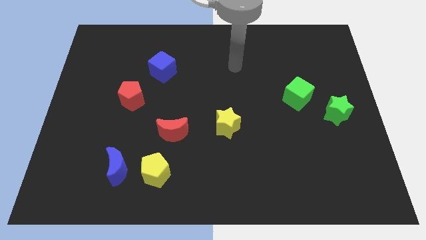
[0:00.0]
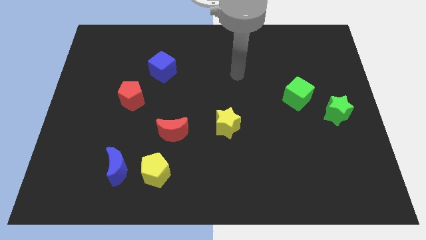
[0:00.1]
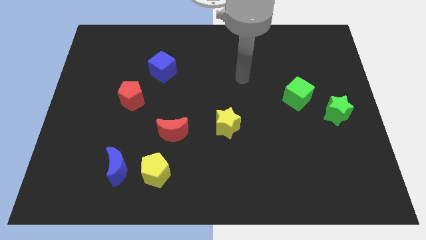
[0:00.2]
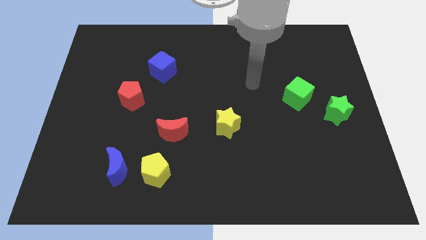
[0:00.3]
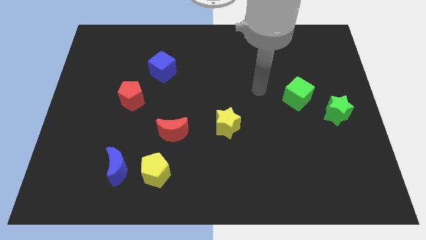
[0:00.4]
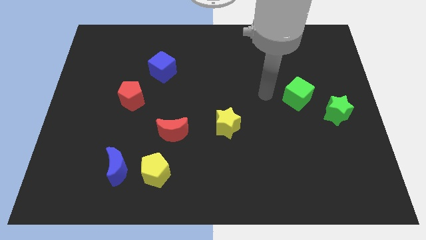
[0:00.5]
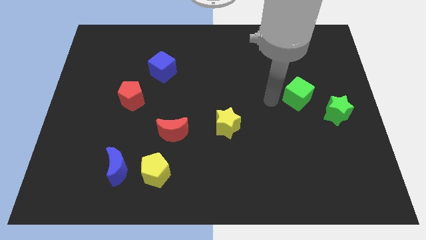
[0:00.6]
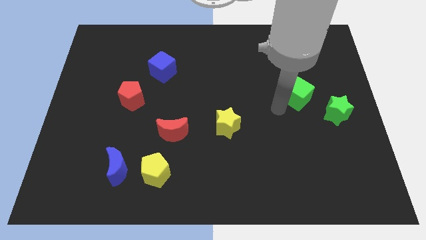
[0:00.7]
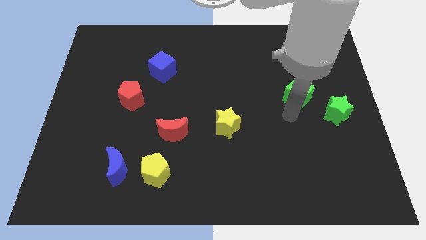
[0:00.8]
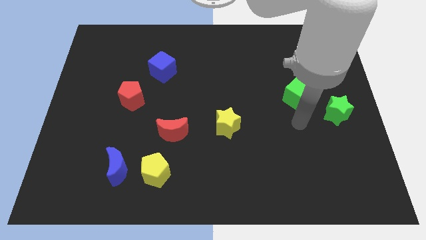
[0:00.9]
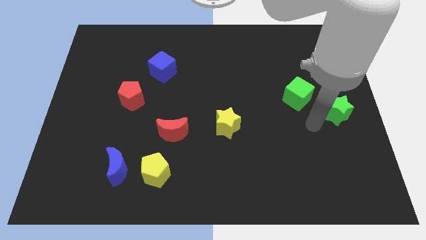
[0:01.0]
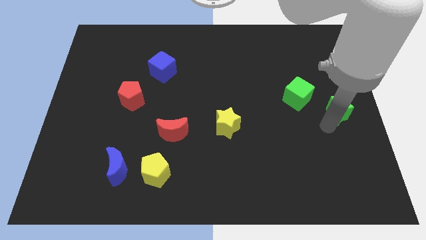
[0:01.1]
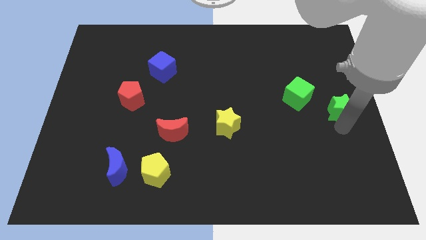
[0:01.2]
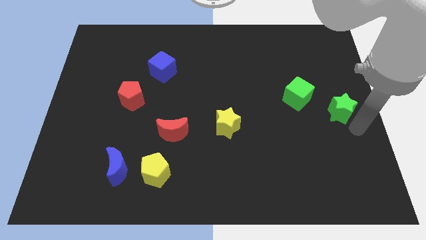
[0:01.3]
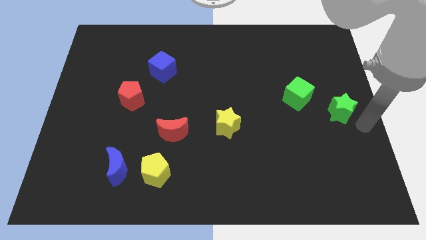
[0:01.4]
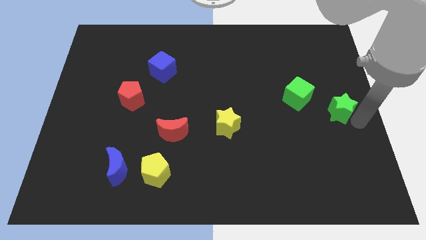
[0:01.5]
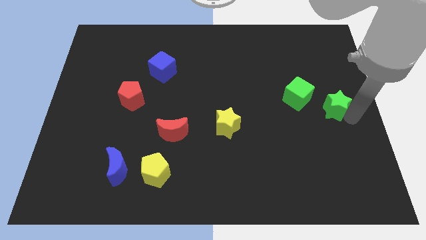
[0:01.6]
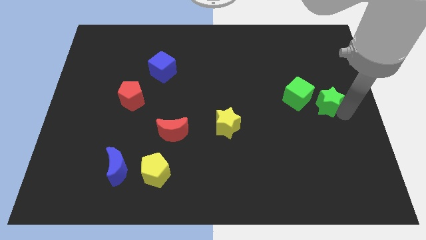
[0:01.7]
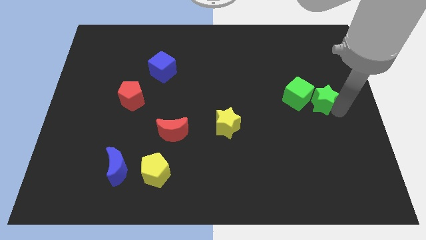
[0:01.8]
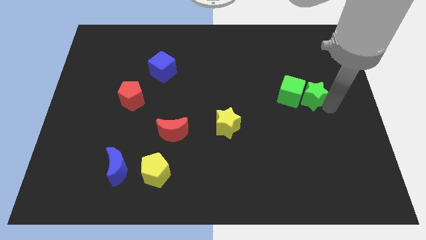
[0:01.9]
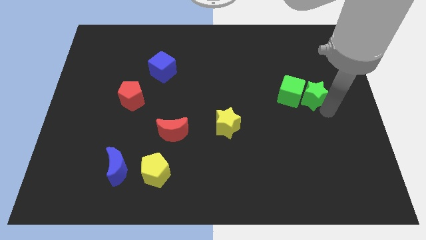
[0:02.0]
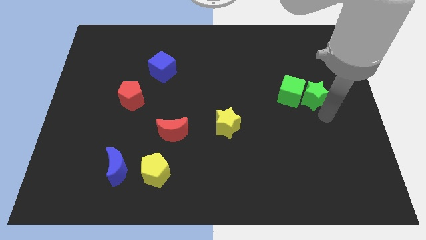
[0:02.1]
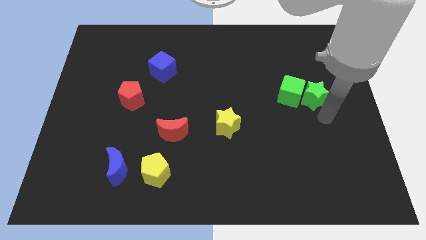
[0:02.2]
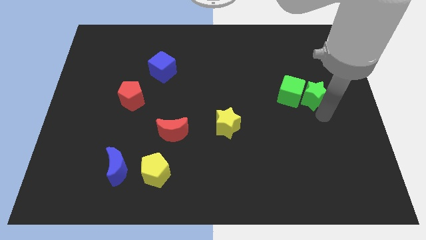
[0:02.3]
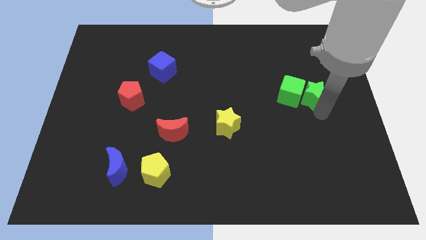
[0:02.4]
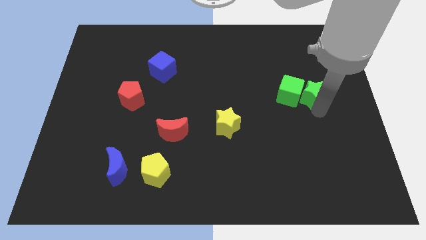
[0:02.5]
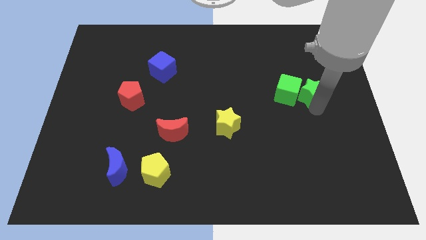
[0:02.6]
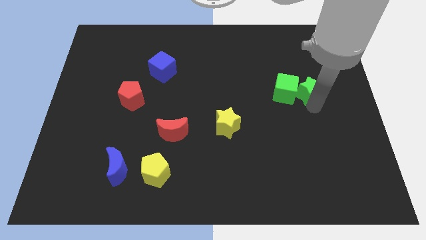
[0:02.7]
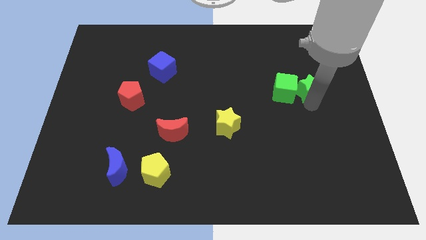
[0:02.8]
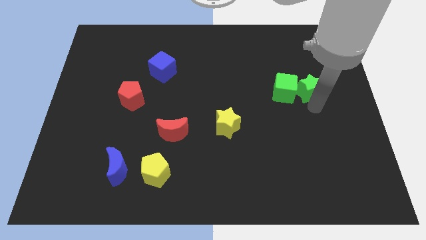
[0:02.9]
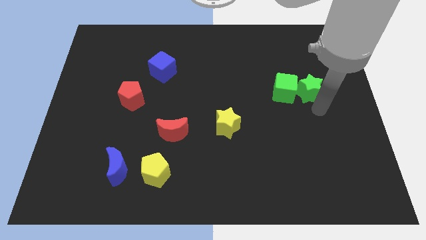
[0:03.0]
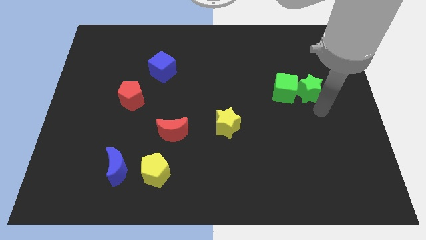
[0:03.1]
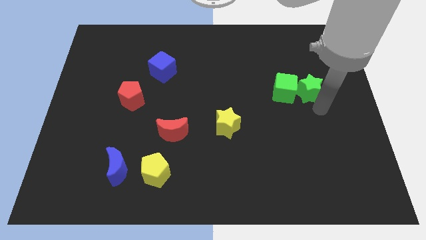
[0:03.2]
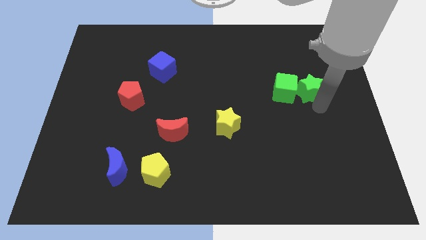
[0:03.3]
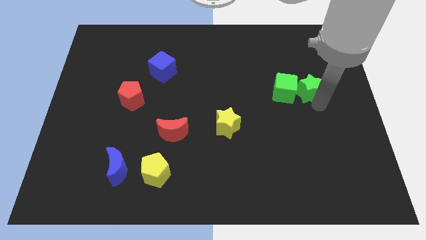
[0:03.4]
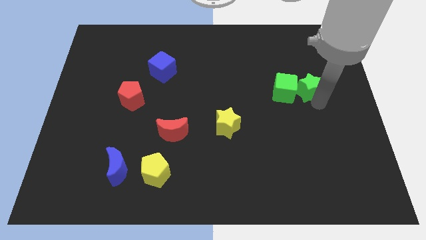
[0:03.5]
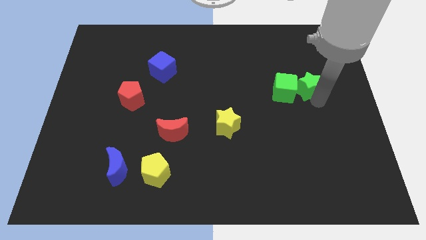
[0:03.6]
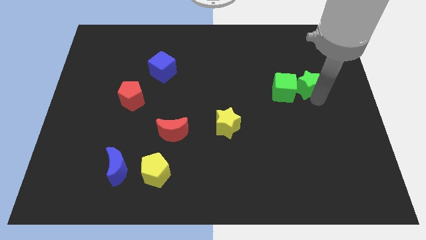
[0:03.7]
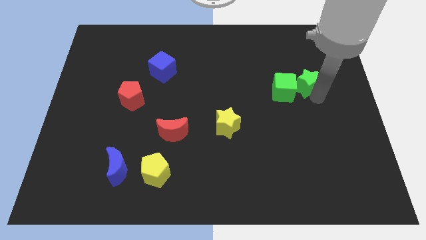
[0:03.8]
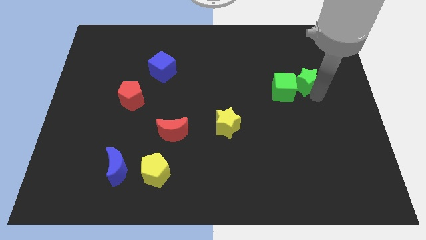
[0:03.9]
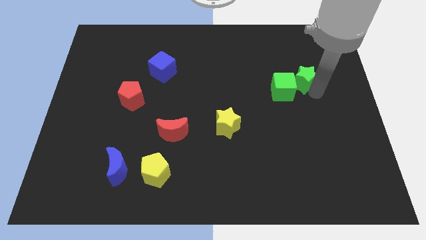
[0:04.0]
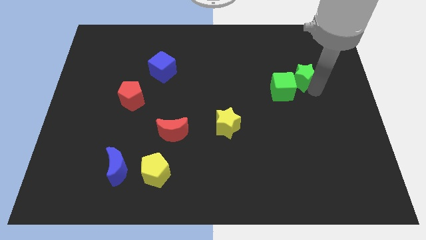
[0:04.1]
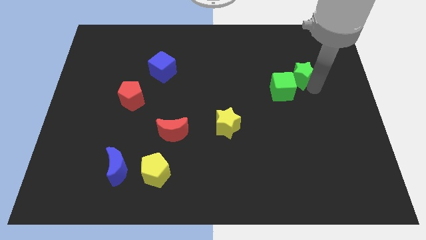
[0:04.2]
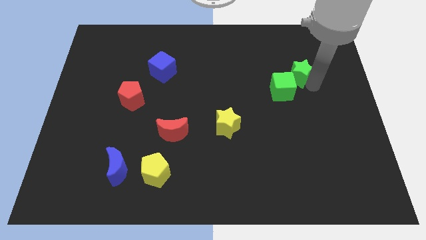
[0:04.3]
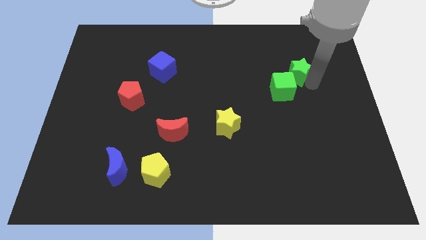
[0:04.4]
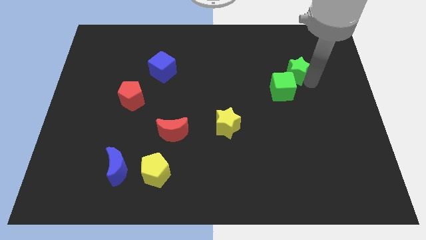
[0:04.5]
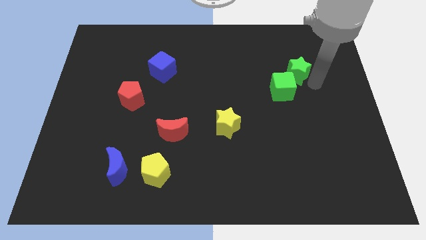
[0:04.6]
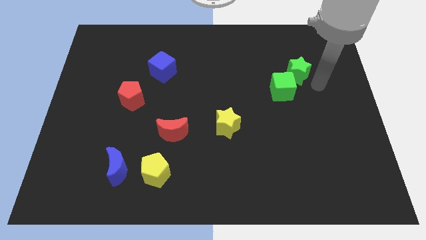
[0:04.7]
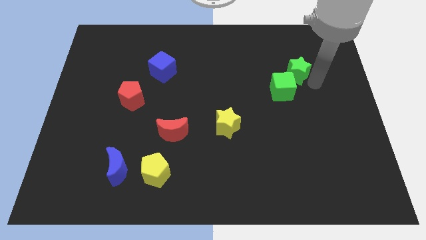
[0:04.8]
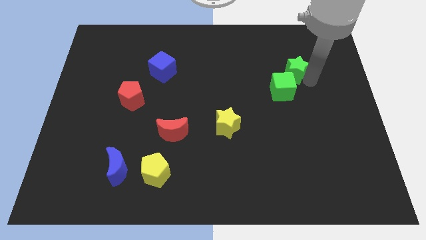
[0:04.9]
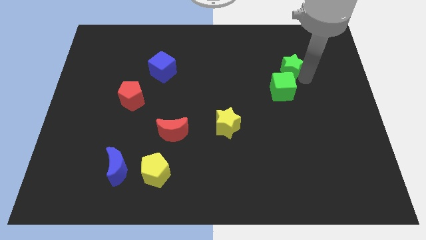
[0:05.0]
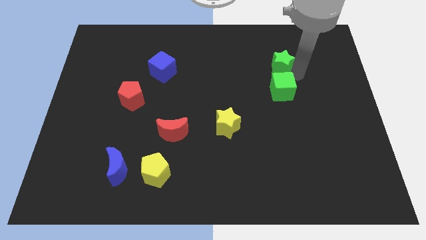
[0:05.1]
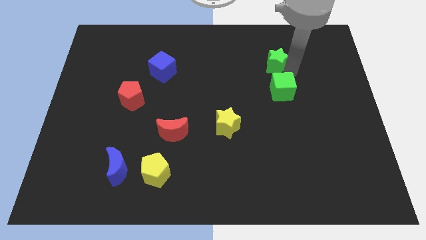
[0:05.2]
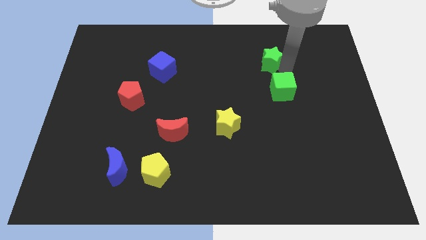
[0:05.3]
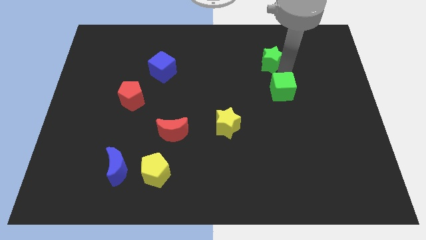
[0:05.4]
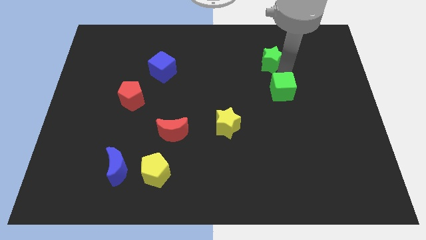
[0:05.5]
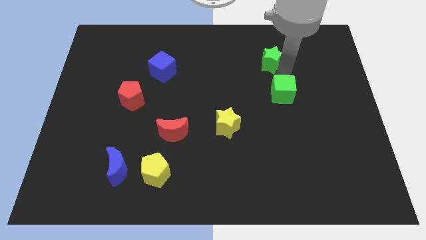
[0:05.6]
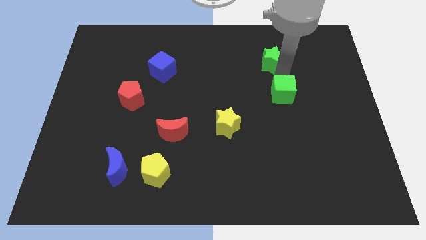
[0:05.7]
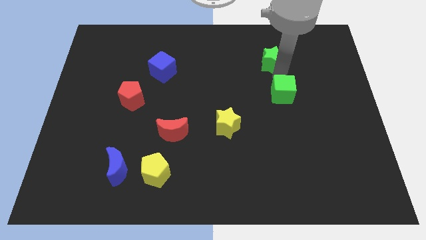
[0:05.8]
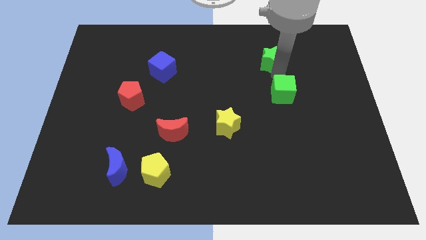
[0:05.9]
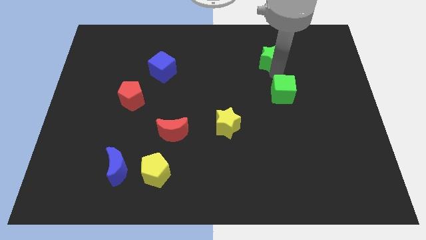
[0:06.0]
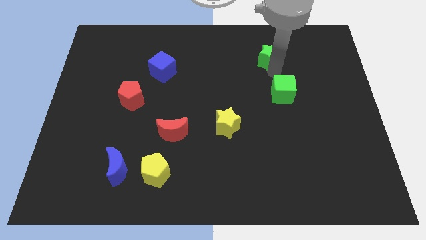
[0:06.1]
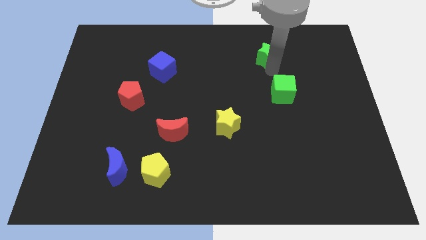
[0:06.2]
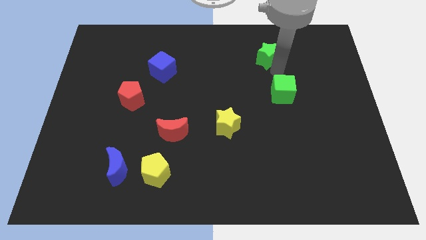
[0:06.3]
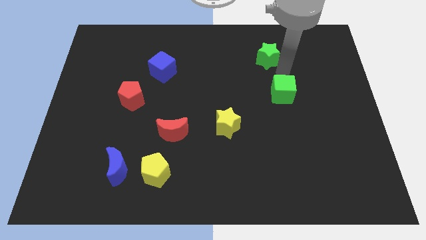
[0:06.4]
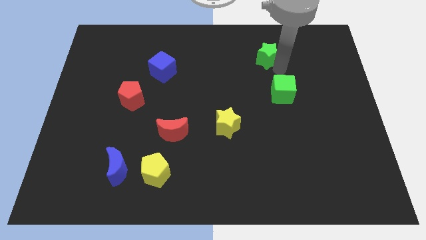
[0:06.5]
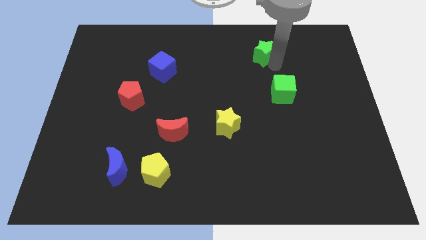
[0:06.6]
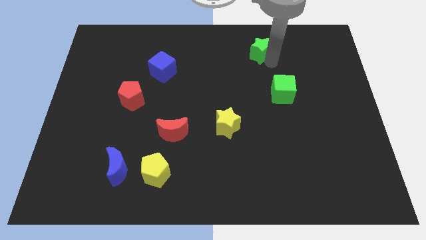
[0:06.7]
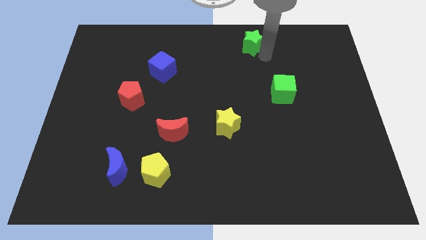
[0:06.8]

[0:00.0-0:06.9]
push the green star to the top side
